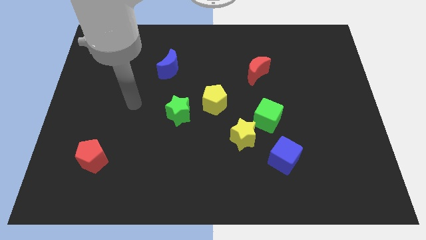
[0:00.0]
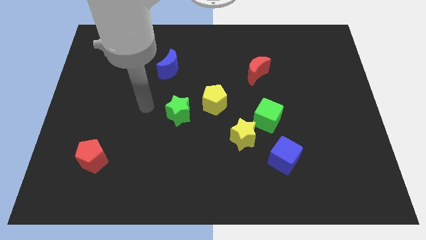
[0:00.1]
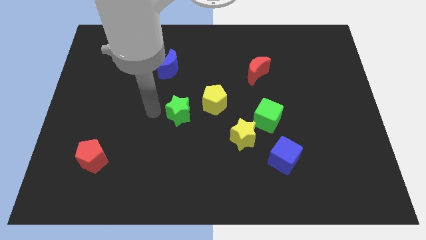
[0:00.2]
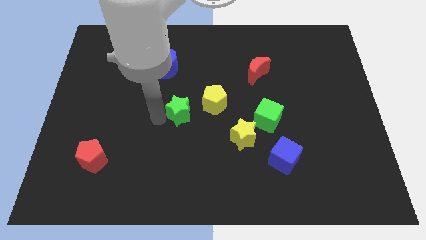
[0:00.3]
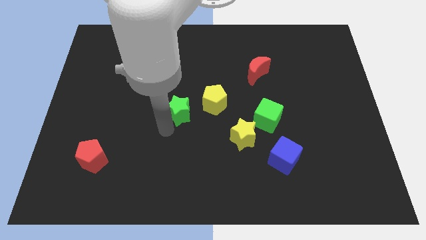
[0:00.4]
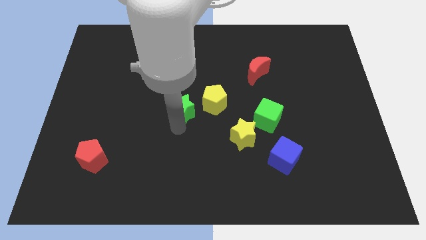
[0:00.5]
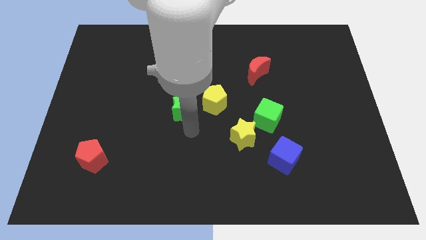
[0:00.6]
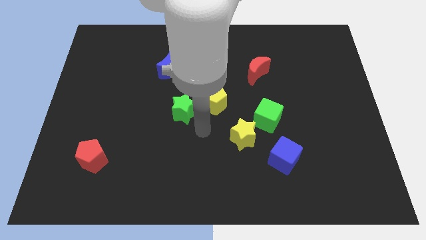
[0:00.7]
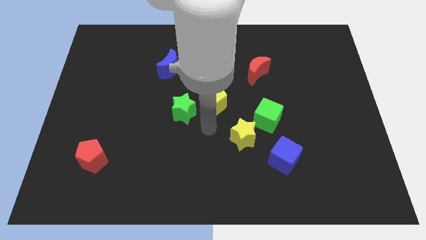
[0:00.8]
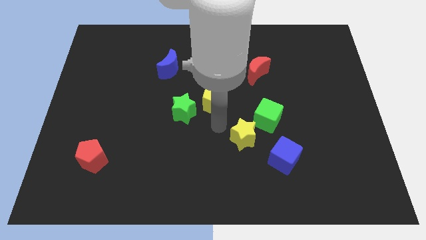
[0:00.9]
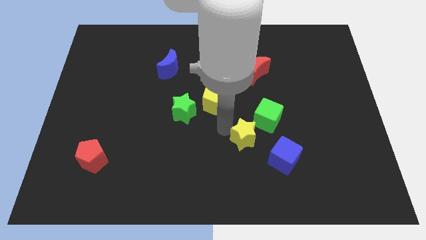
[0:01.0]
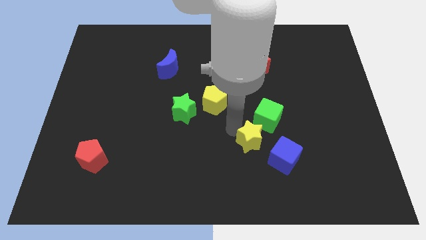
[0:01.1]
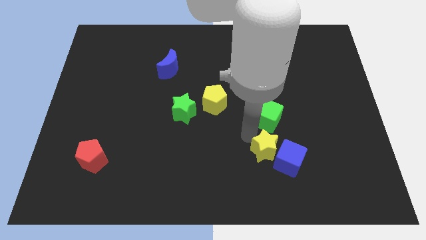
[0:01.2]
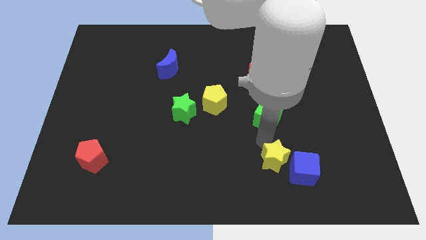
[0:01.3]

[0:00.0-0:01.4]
separate the green cube from the yellow star

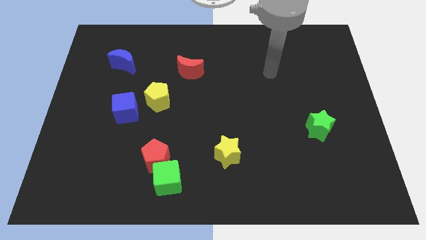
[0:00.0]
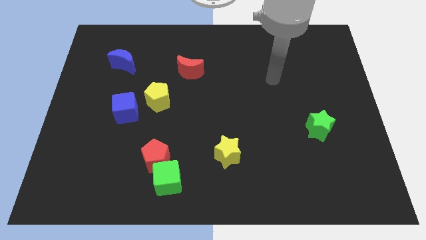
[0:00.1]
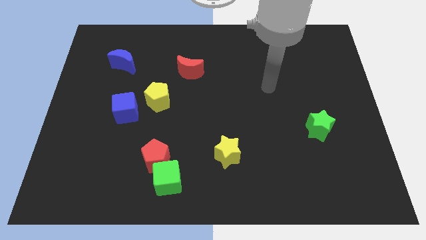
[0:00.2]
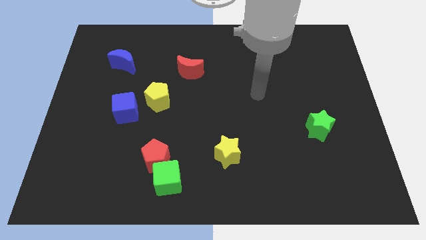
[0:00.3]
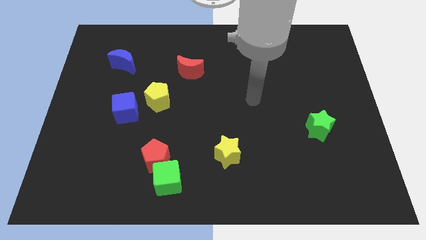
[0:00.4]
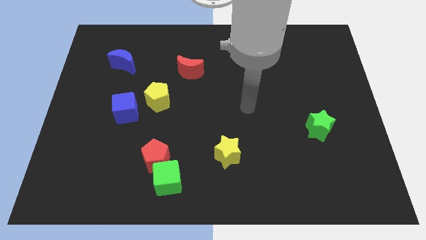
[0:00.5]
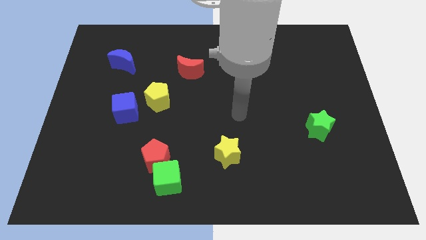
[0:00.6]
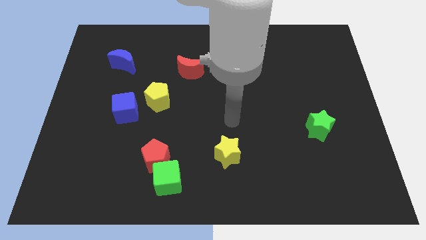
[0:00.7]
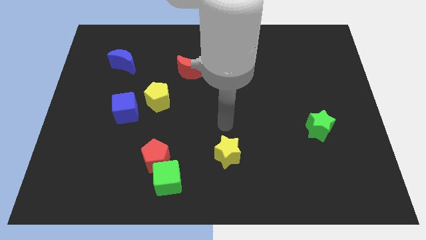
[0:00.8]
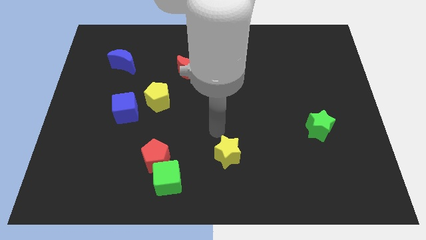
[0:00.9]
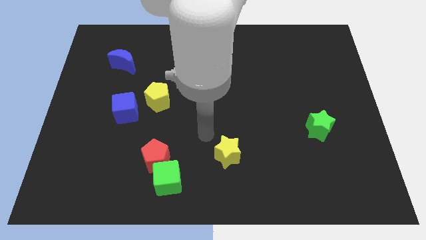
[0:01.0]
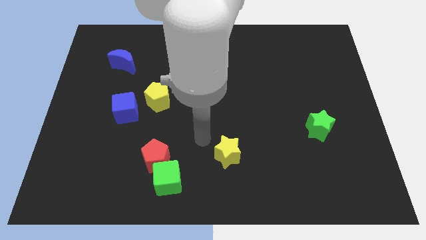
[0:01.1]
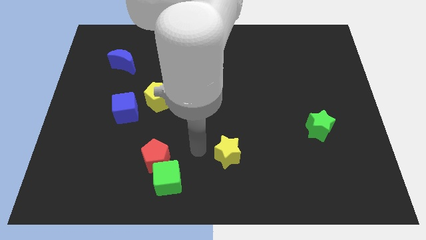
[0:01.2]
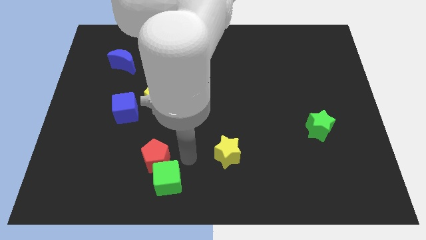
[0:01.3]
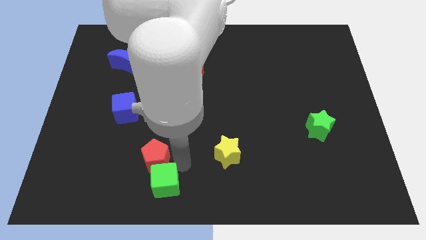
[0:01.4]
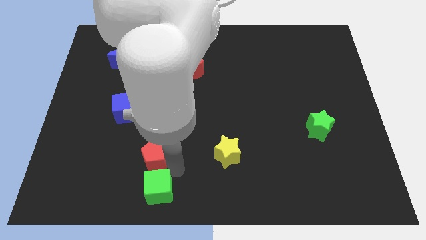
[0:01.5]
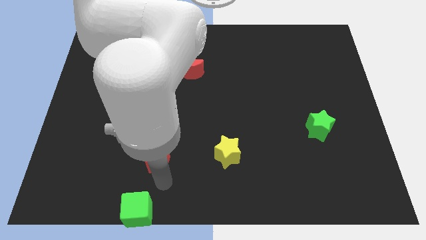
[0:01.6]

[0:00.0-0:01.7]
separate the red pentagon from the green cube

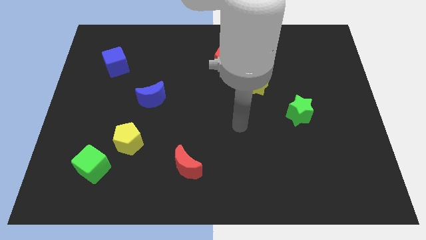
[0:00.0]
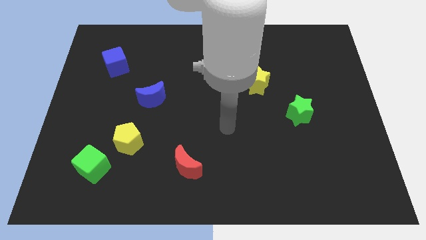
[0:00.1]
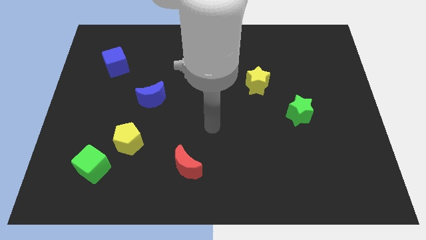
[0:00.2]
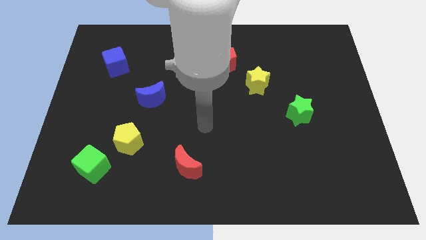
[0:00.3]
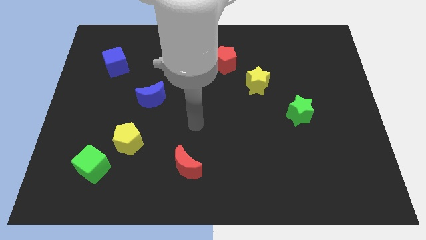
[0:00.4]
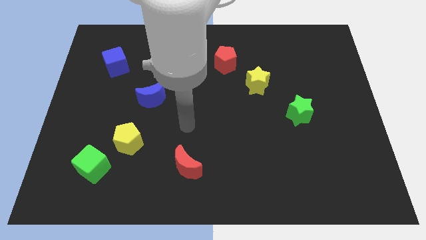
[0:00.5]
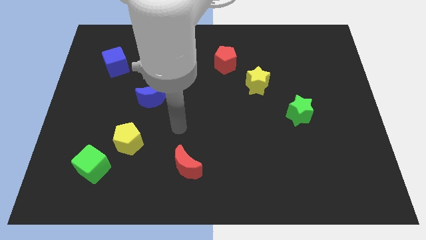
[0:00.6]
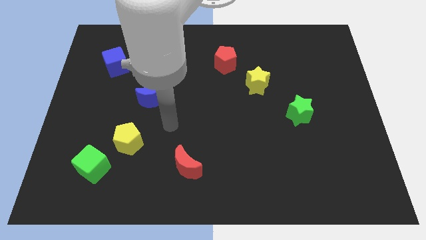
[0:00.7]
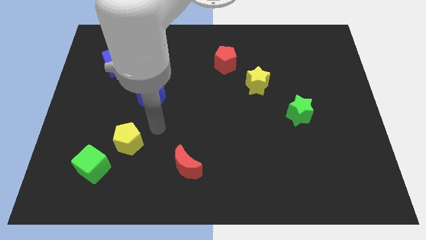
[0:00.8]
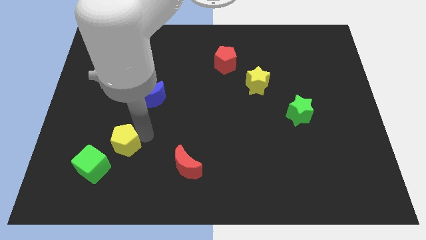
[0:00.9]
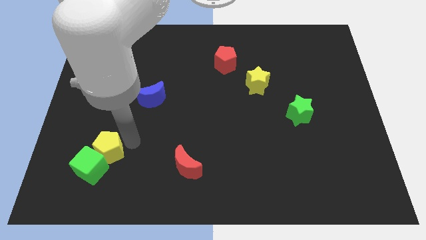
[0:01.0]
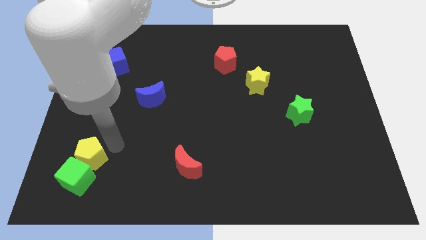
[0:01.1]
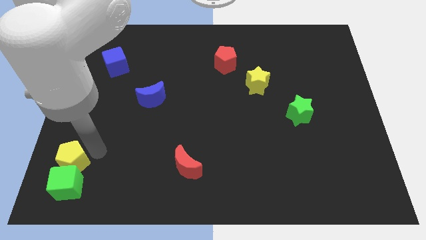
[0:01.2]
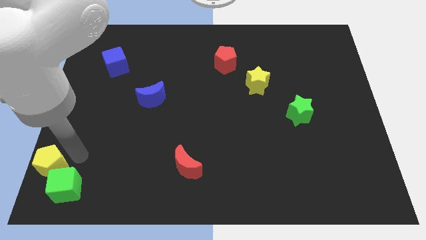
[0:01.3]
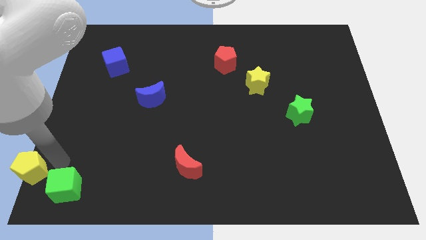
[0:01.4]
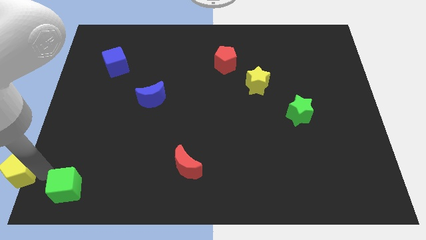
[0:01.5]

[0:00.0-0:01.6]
separate the green cube from the yellow pentagon

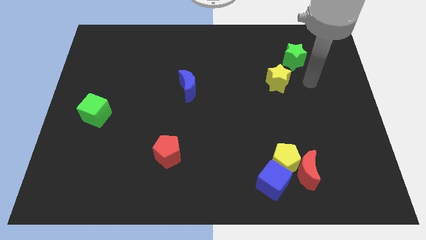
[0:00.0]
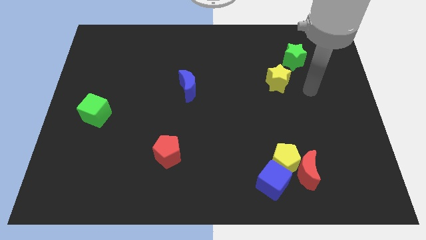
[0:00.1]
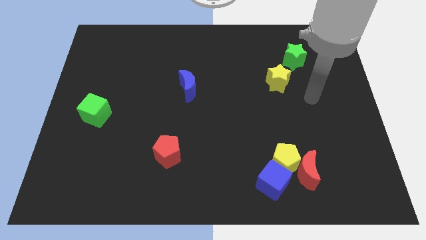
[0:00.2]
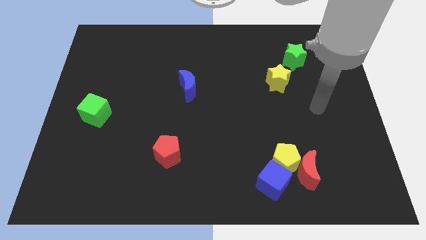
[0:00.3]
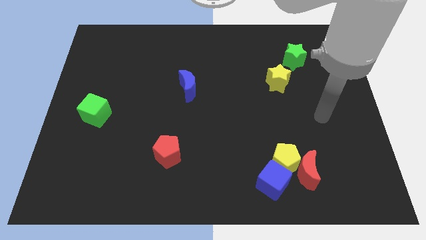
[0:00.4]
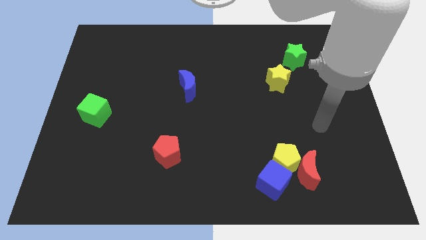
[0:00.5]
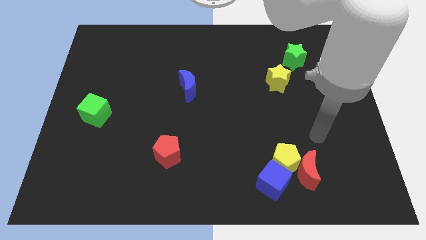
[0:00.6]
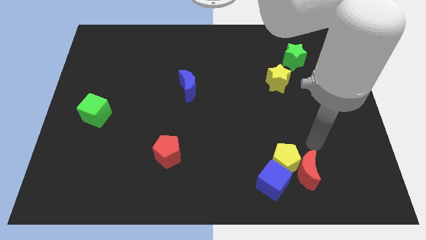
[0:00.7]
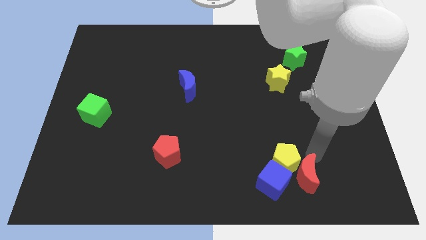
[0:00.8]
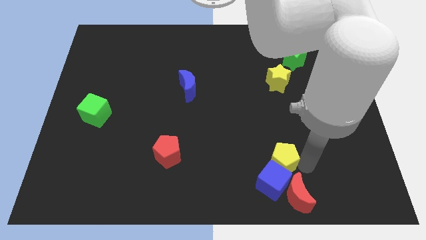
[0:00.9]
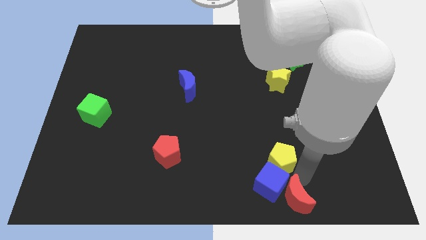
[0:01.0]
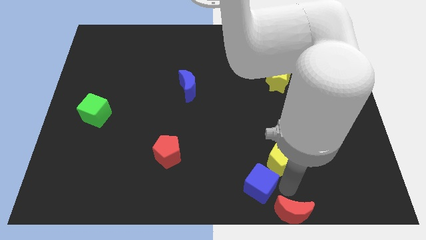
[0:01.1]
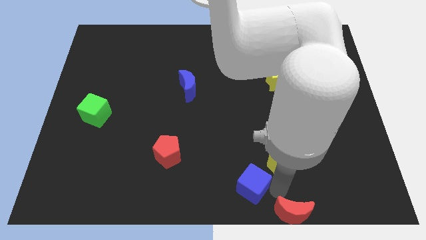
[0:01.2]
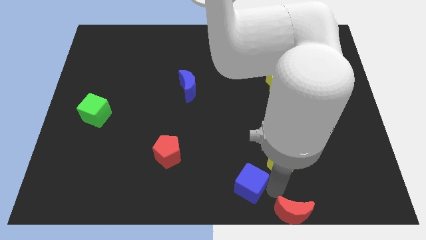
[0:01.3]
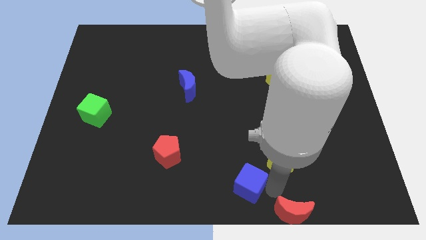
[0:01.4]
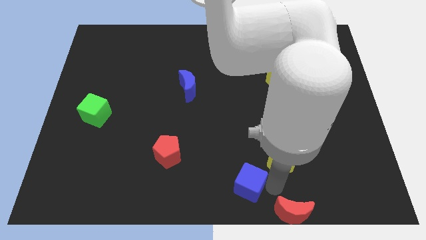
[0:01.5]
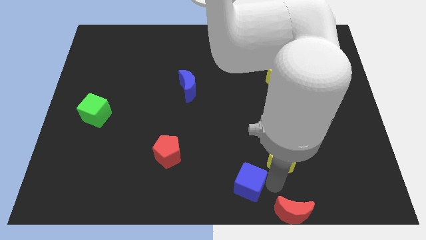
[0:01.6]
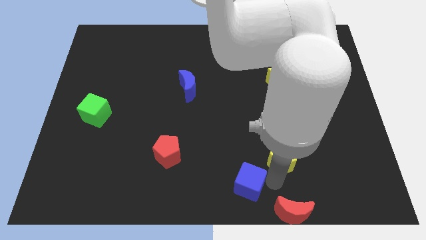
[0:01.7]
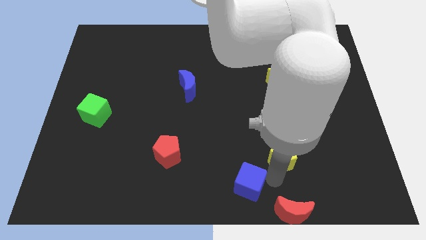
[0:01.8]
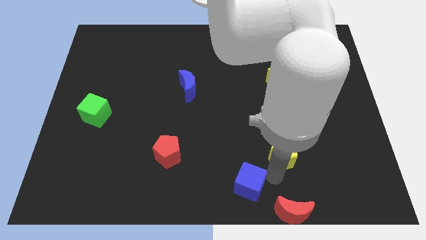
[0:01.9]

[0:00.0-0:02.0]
move the yellow pentagon away from the red moon and blue cube

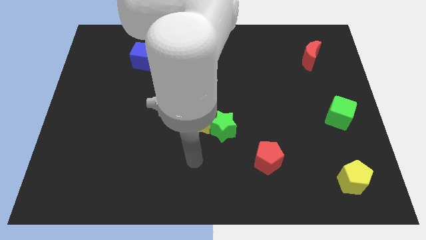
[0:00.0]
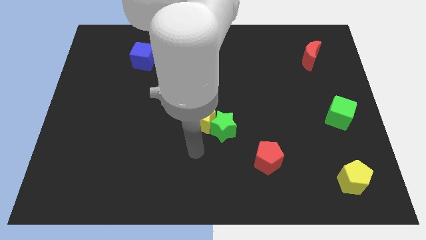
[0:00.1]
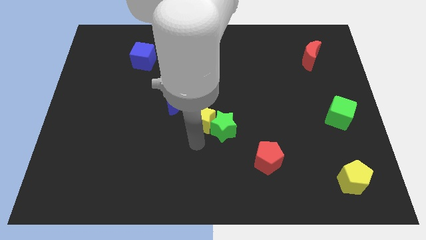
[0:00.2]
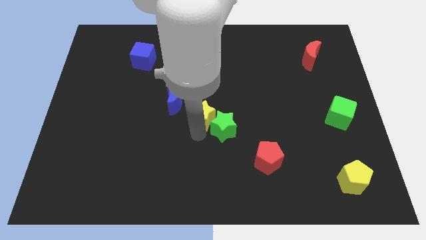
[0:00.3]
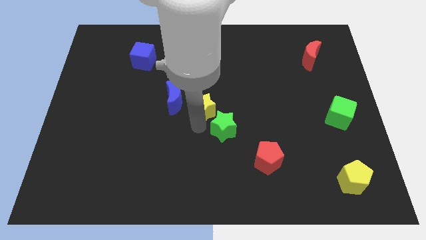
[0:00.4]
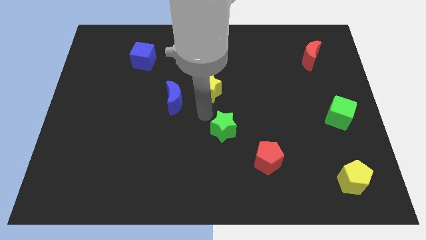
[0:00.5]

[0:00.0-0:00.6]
separate the green star from the yellow star

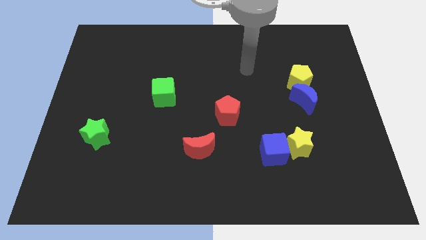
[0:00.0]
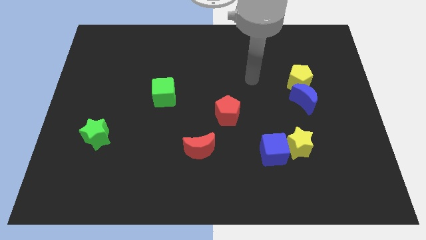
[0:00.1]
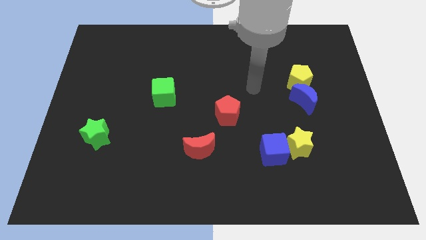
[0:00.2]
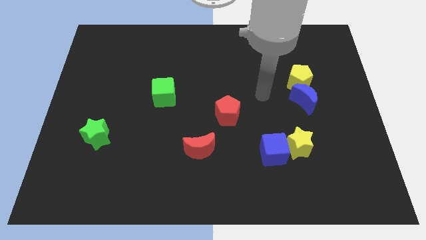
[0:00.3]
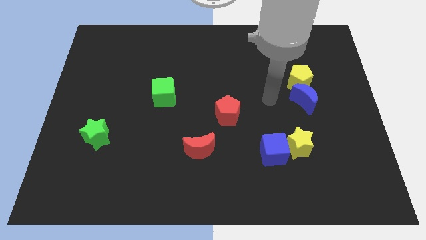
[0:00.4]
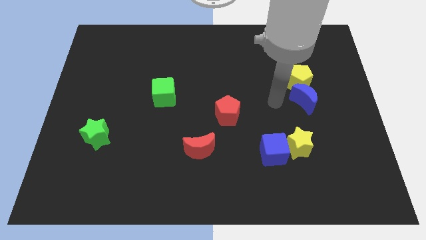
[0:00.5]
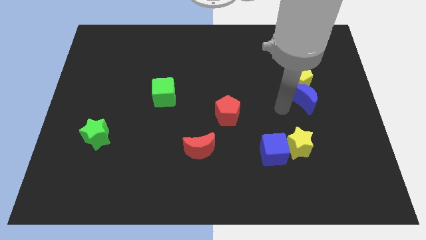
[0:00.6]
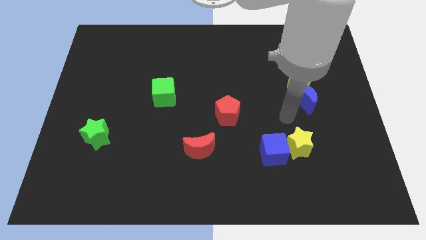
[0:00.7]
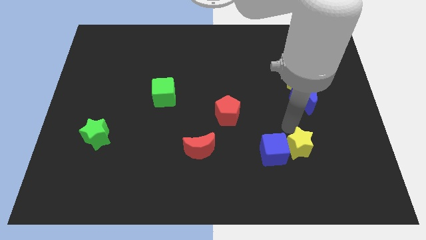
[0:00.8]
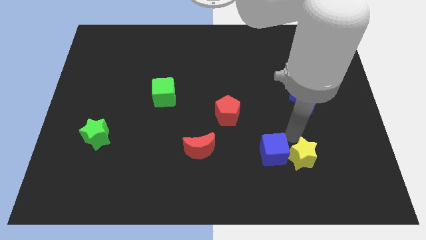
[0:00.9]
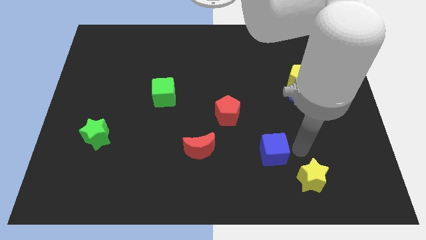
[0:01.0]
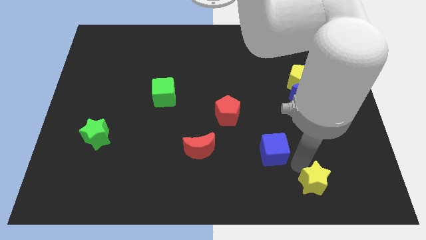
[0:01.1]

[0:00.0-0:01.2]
separate the blue cube from the yellow star

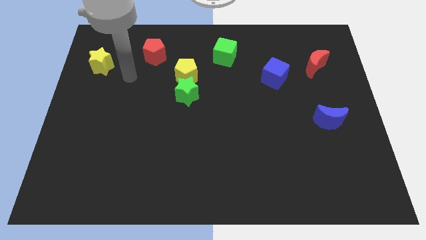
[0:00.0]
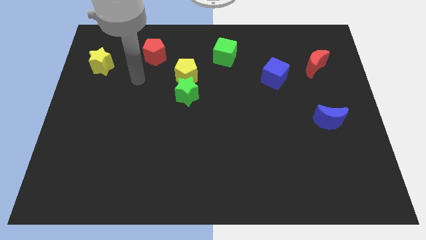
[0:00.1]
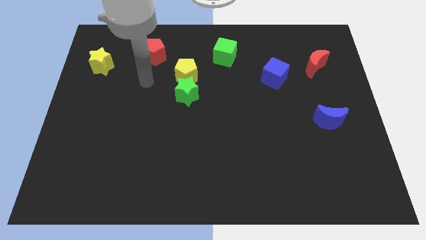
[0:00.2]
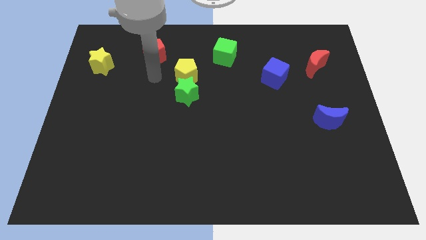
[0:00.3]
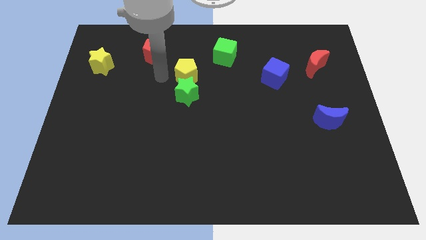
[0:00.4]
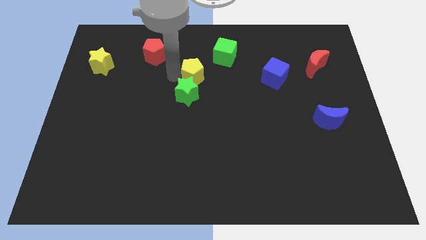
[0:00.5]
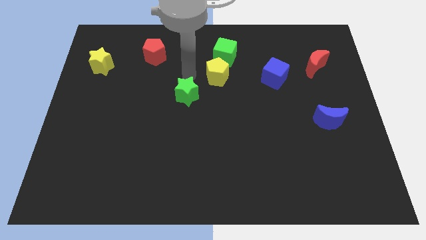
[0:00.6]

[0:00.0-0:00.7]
pull the green star apart from the yellow pentagon

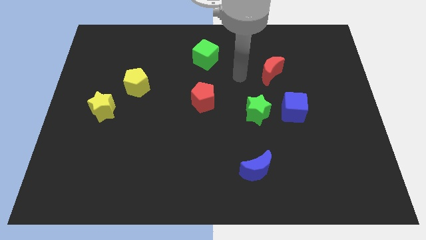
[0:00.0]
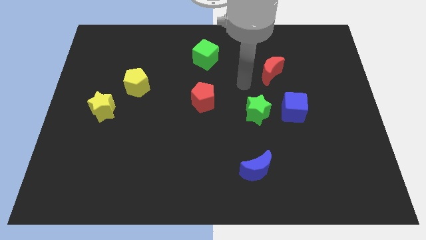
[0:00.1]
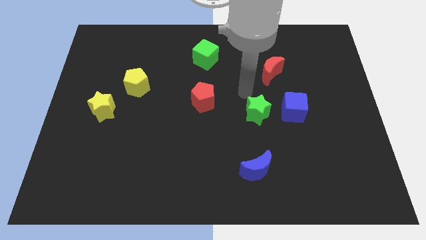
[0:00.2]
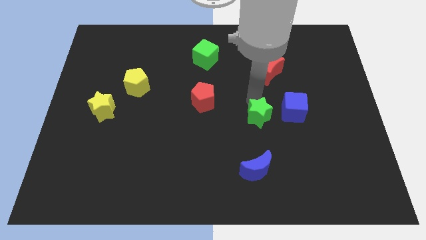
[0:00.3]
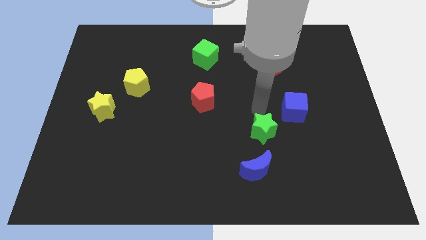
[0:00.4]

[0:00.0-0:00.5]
move the blue cube away from the green star
